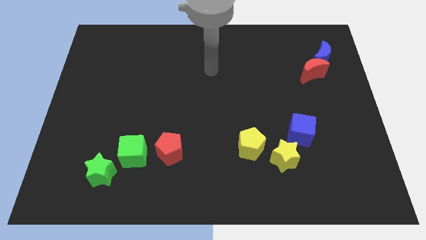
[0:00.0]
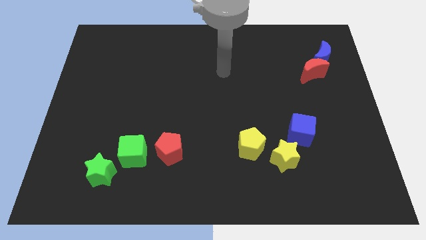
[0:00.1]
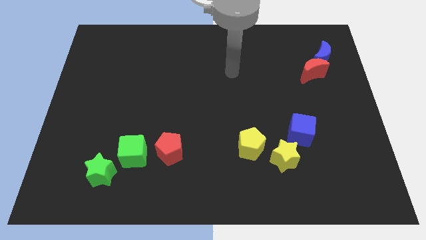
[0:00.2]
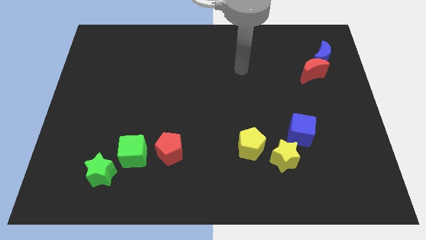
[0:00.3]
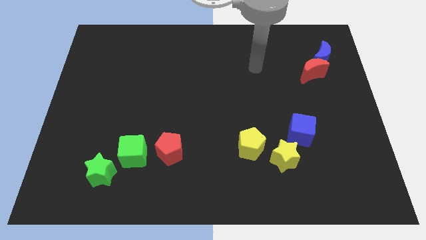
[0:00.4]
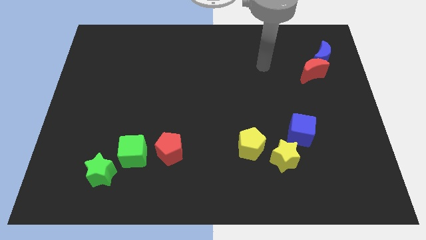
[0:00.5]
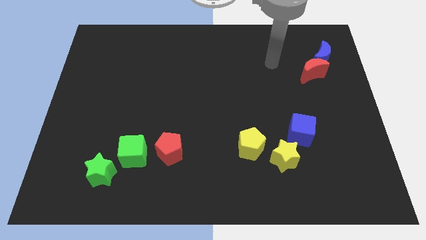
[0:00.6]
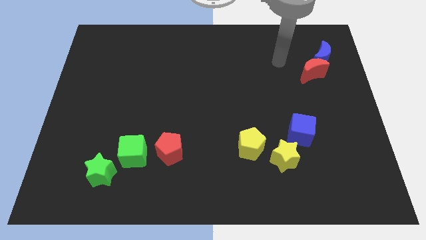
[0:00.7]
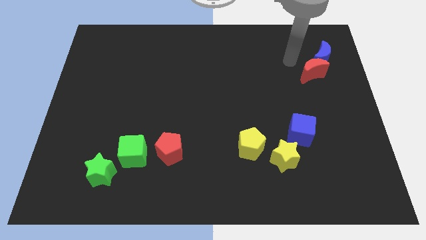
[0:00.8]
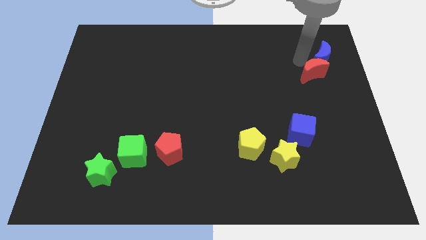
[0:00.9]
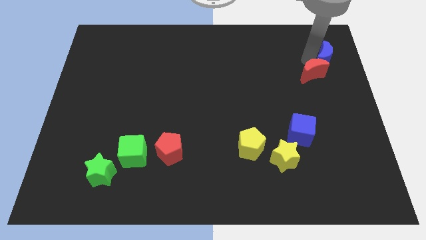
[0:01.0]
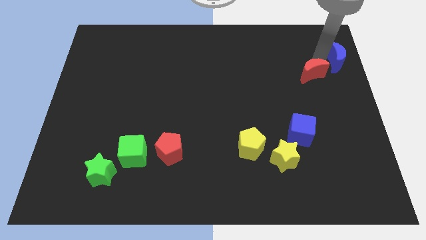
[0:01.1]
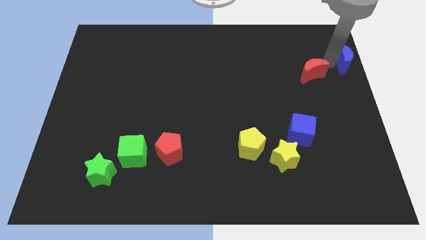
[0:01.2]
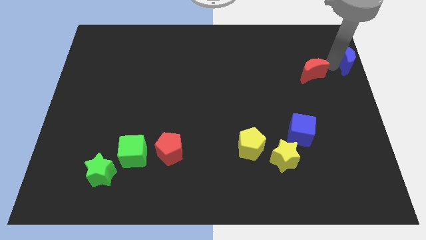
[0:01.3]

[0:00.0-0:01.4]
separate the red moon from the blue moon

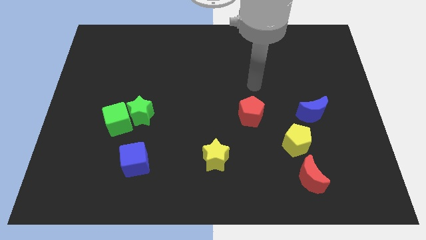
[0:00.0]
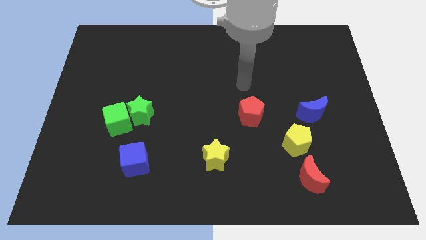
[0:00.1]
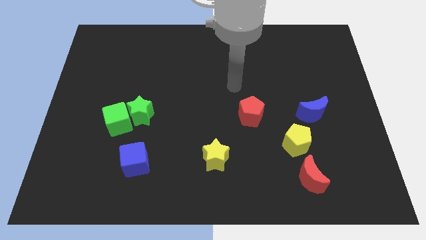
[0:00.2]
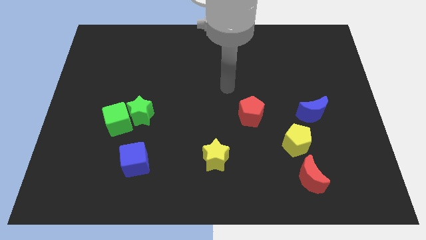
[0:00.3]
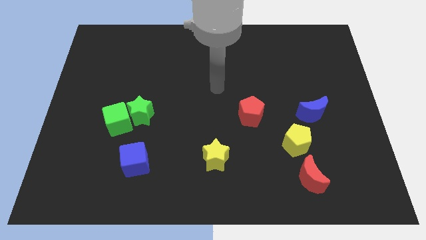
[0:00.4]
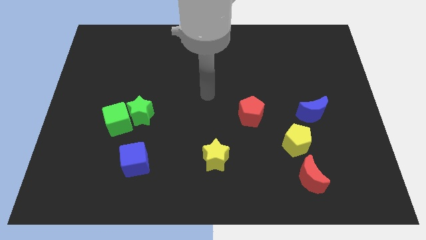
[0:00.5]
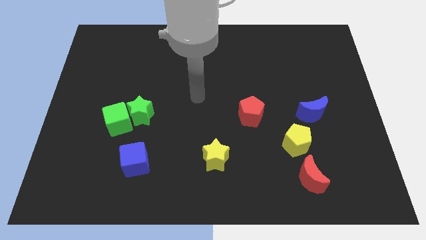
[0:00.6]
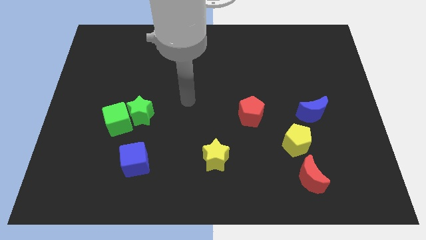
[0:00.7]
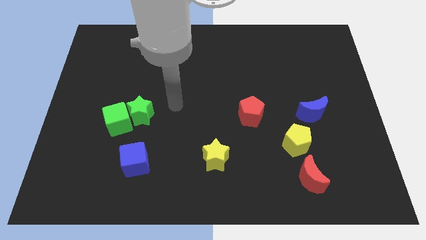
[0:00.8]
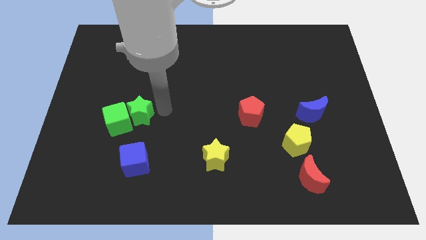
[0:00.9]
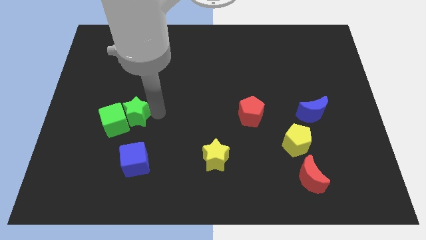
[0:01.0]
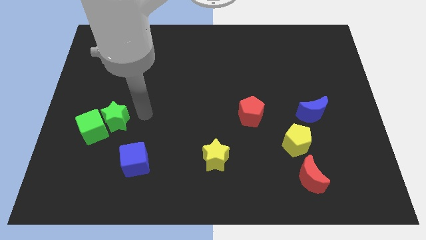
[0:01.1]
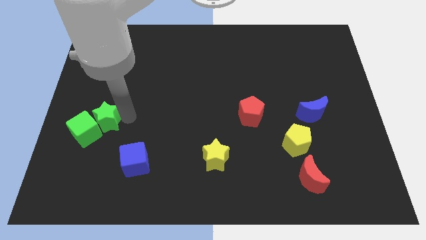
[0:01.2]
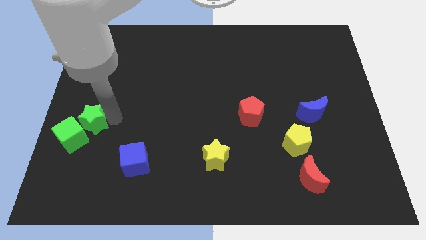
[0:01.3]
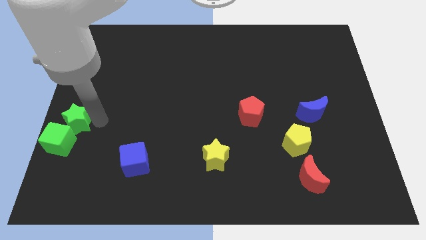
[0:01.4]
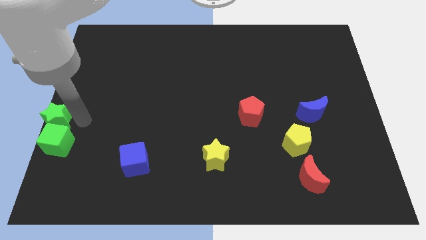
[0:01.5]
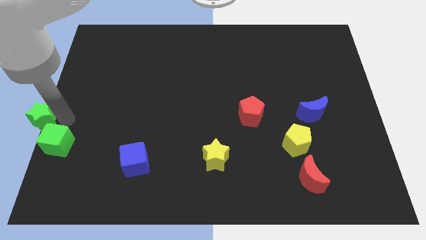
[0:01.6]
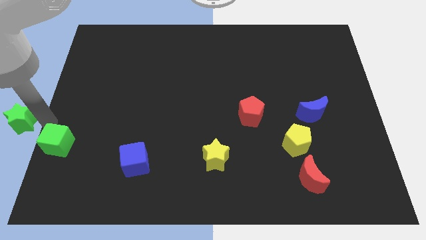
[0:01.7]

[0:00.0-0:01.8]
move the green cube away from the green star

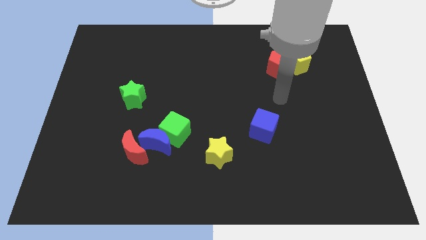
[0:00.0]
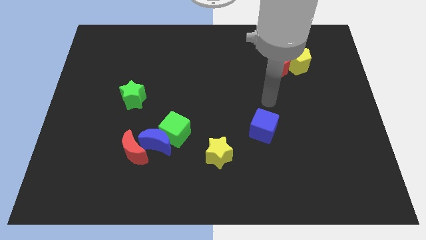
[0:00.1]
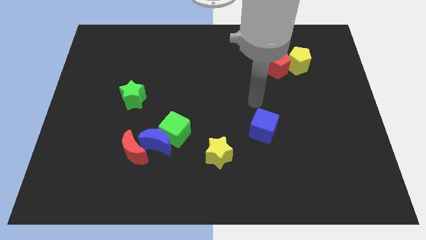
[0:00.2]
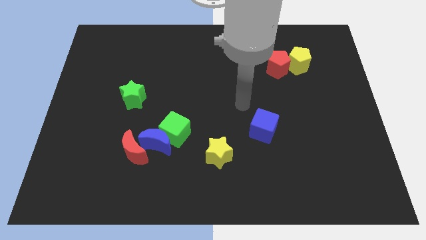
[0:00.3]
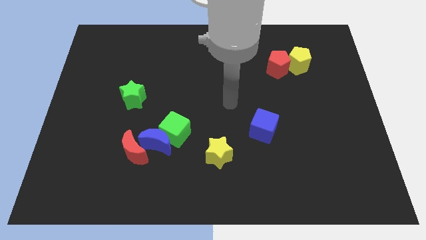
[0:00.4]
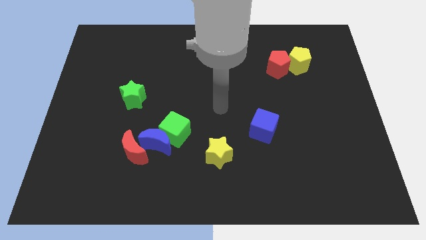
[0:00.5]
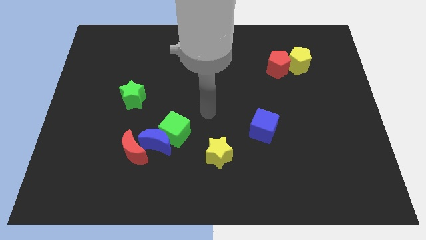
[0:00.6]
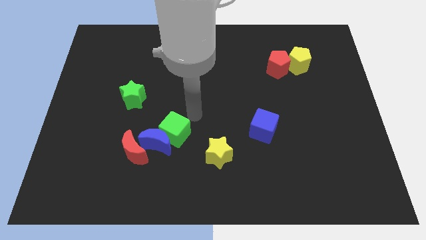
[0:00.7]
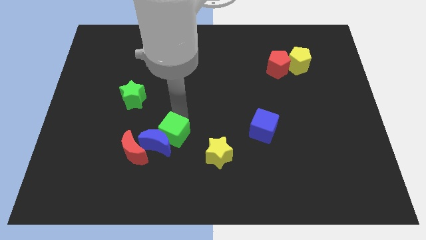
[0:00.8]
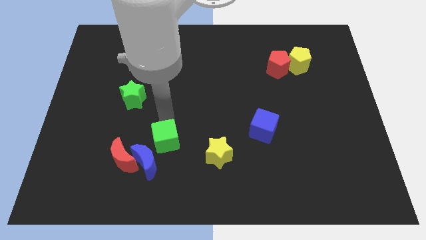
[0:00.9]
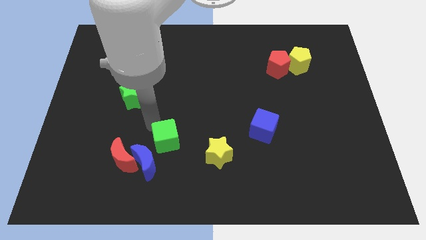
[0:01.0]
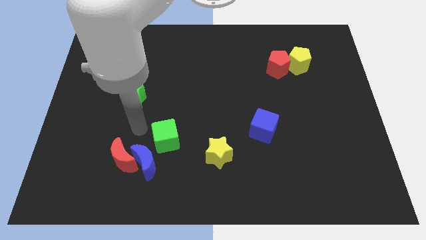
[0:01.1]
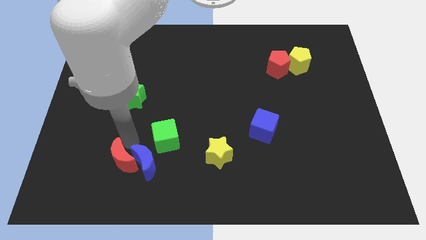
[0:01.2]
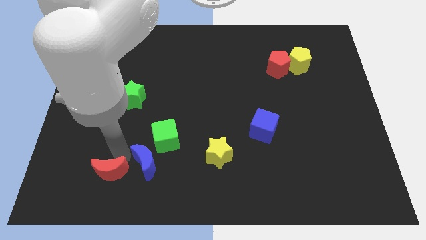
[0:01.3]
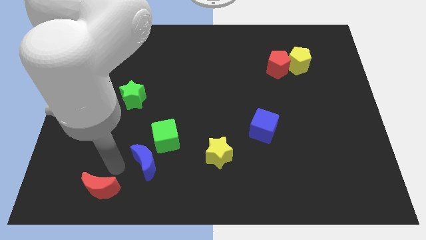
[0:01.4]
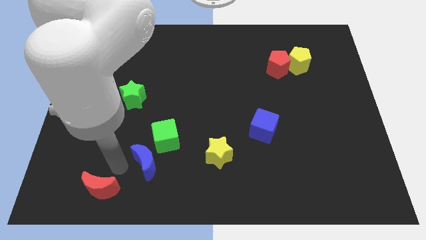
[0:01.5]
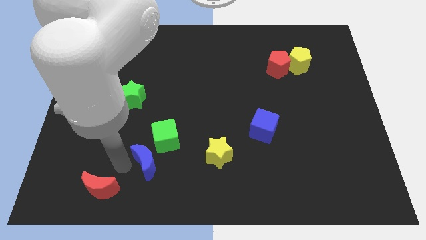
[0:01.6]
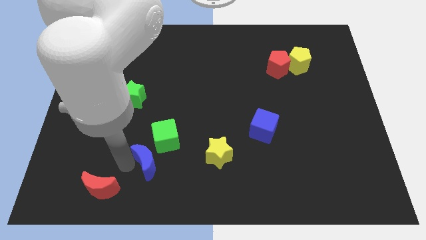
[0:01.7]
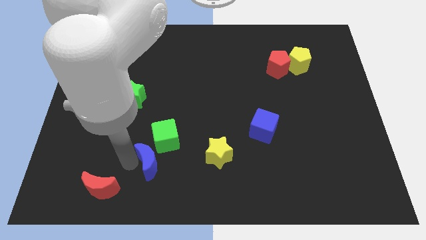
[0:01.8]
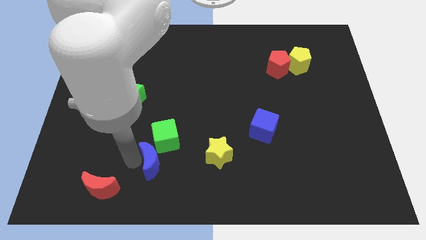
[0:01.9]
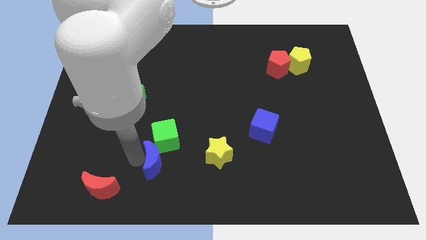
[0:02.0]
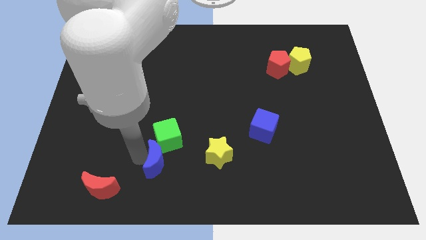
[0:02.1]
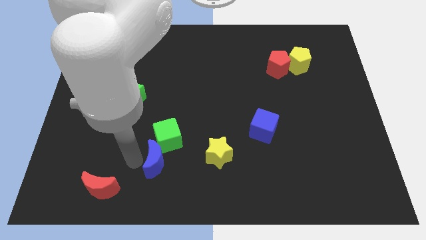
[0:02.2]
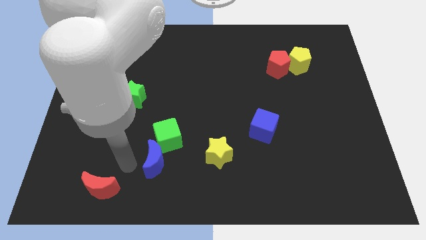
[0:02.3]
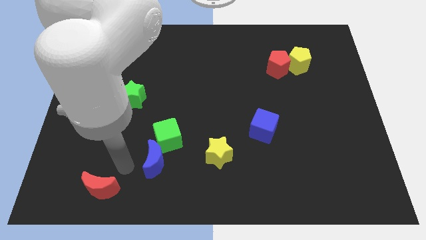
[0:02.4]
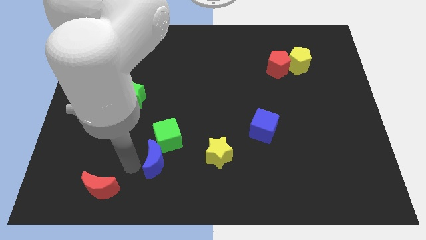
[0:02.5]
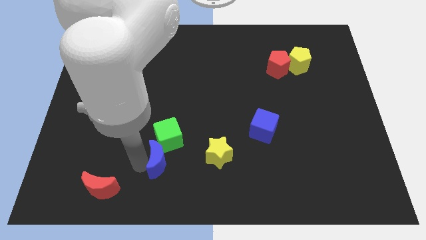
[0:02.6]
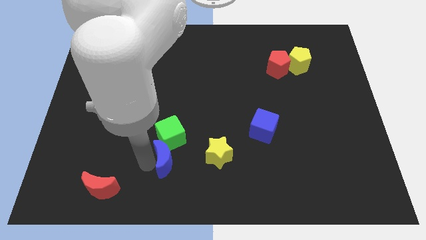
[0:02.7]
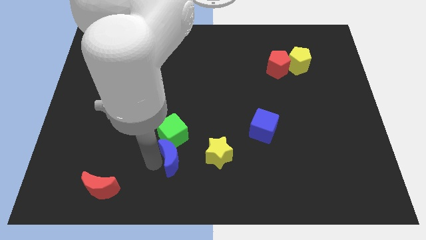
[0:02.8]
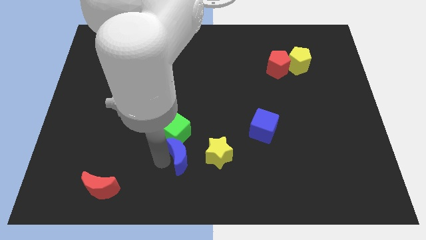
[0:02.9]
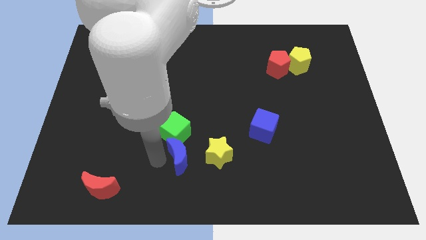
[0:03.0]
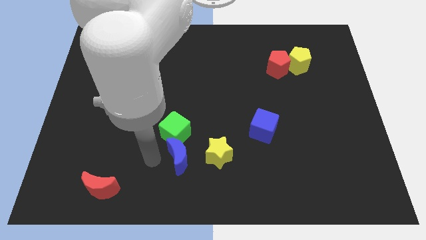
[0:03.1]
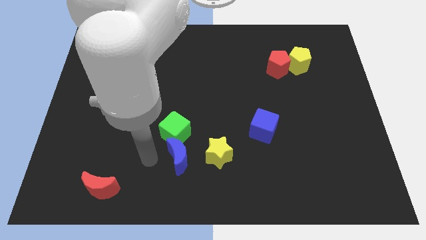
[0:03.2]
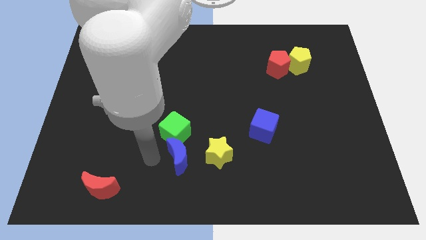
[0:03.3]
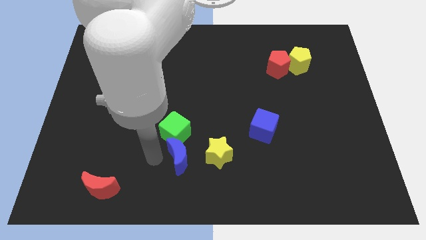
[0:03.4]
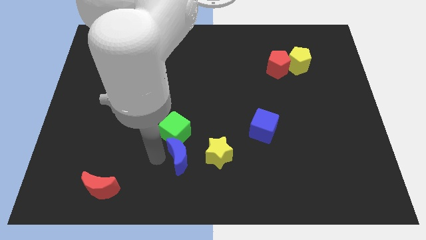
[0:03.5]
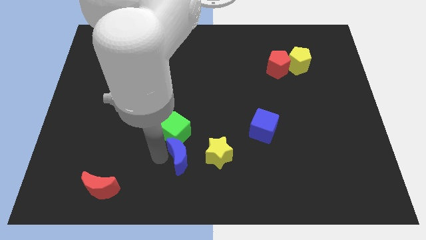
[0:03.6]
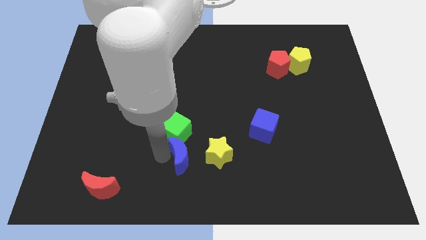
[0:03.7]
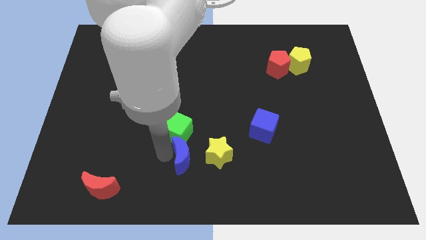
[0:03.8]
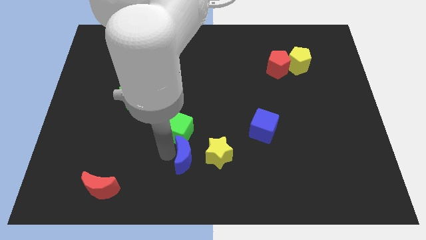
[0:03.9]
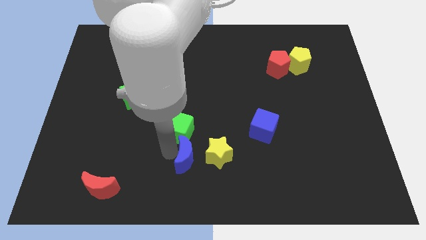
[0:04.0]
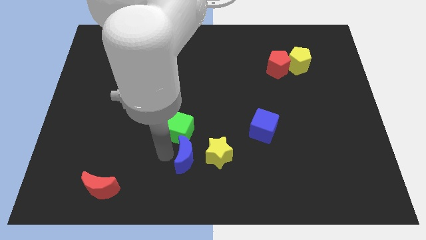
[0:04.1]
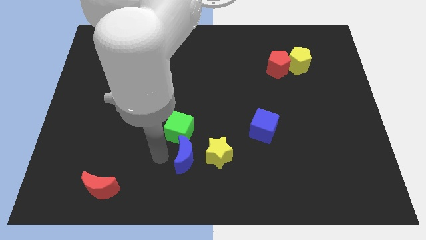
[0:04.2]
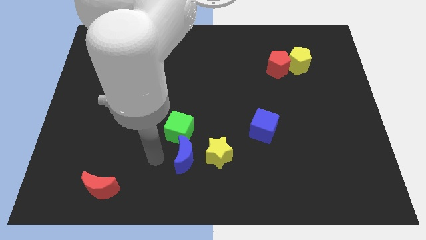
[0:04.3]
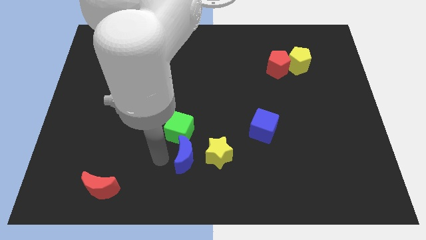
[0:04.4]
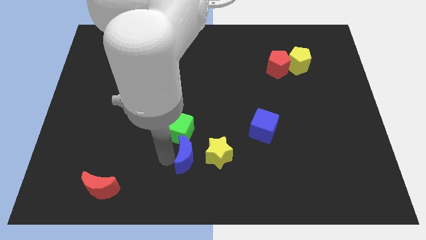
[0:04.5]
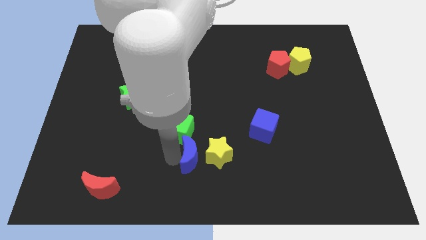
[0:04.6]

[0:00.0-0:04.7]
separate the blue moon from the green cube and red moon

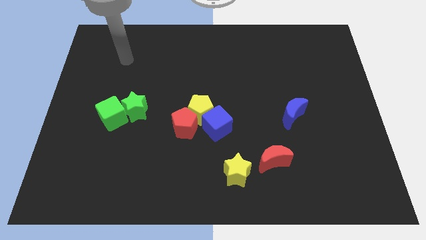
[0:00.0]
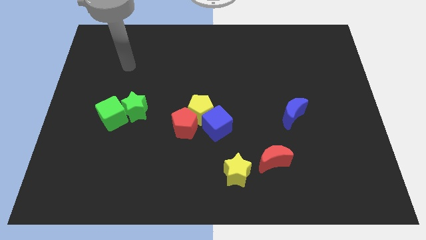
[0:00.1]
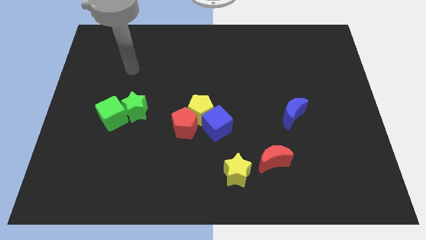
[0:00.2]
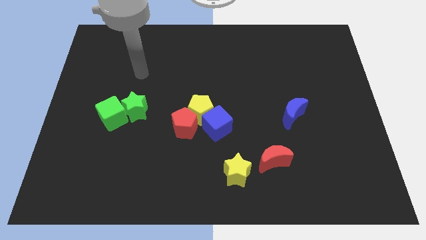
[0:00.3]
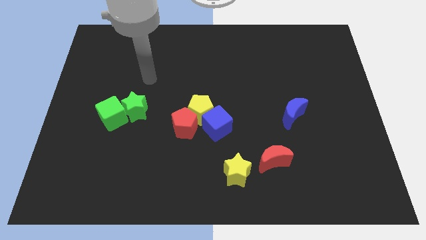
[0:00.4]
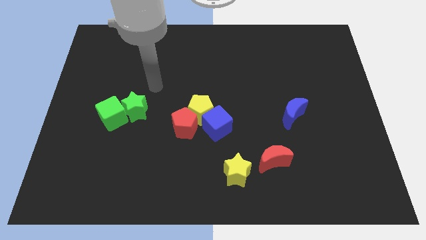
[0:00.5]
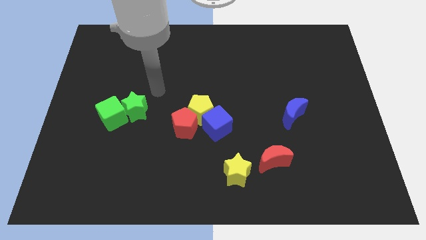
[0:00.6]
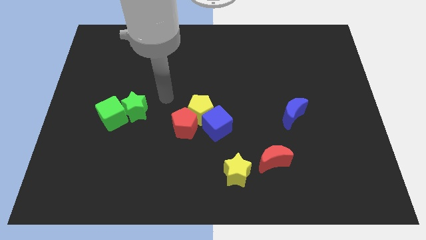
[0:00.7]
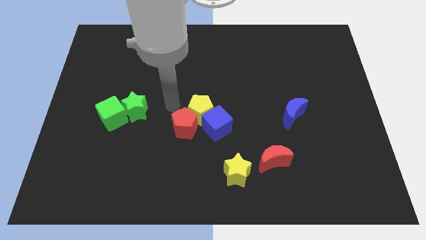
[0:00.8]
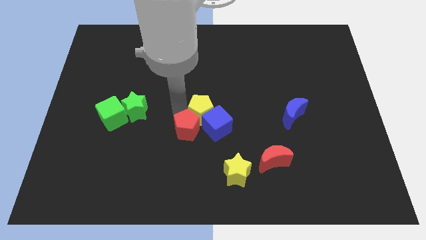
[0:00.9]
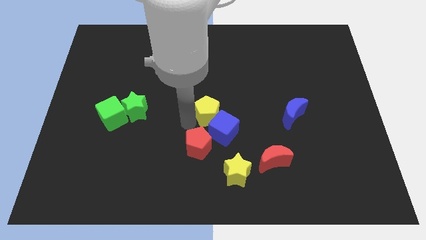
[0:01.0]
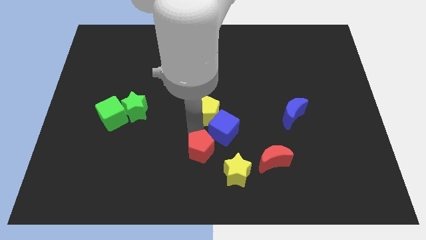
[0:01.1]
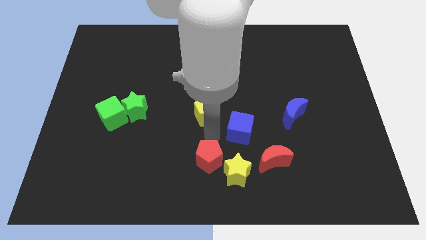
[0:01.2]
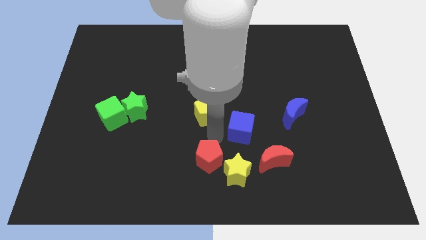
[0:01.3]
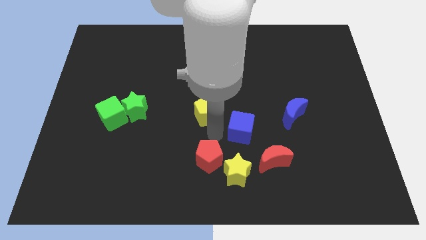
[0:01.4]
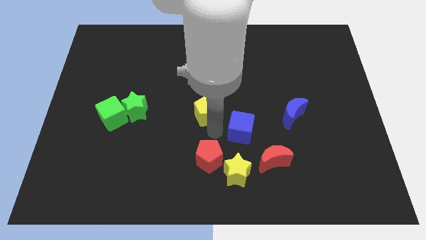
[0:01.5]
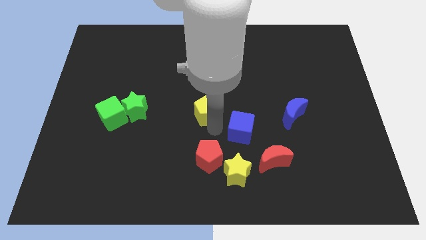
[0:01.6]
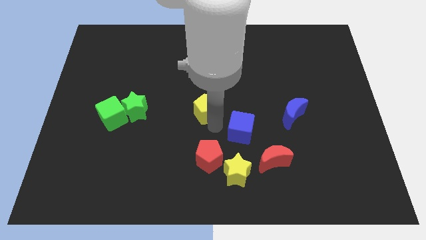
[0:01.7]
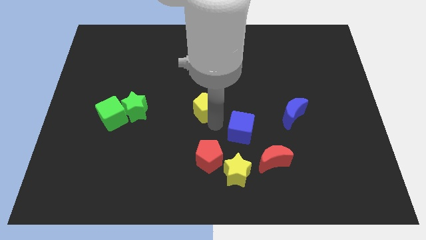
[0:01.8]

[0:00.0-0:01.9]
move the yellow pentagon away from the red pentagon and blue cube
